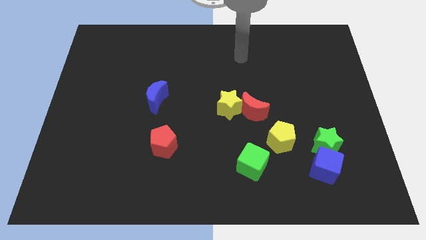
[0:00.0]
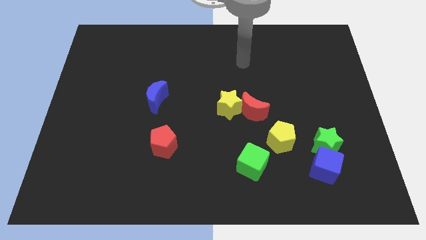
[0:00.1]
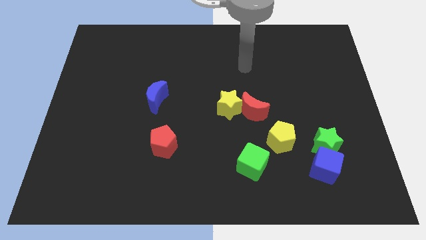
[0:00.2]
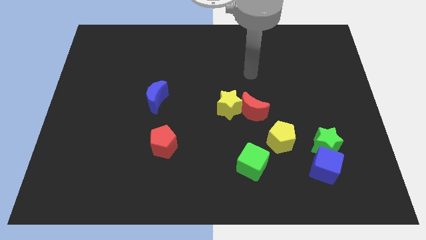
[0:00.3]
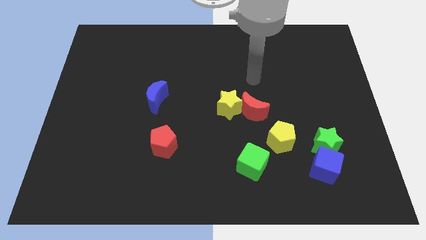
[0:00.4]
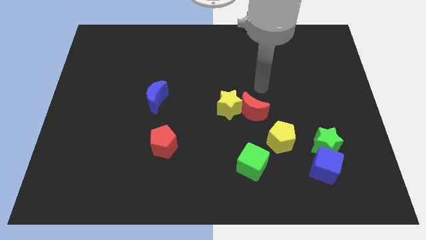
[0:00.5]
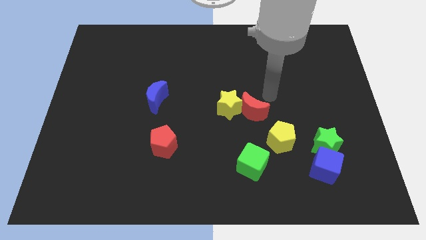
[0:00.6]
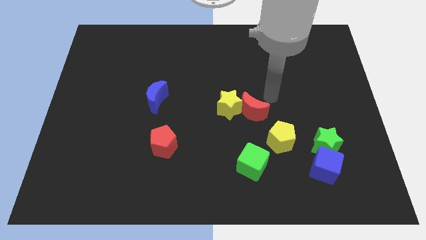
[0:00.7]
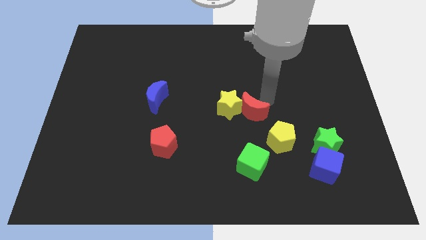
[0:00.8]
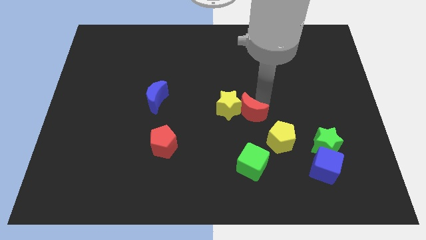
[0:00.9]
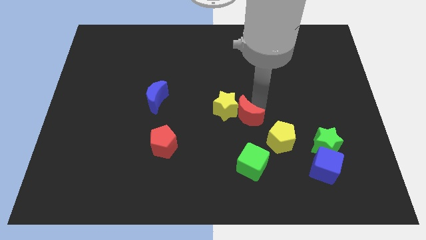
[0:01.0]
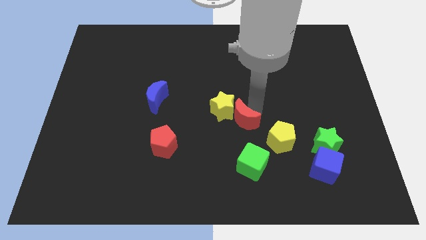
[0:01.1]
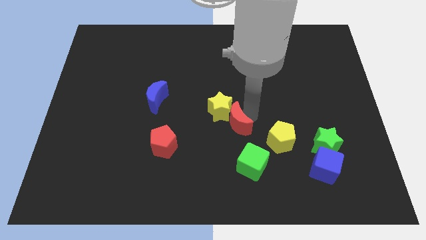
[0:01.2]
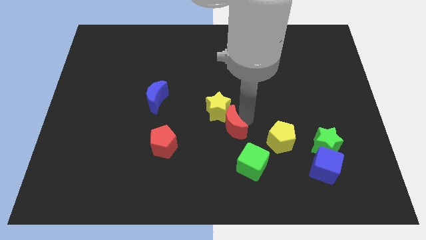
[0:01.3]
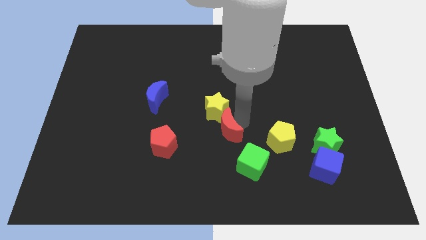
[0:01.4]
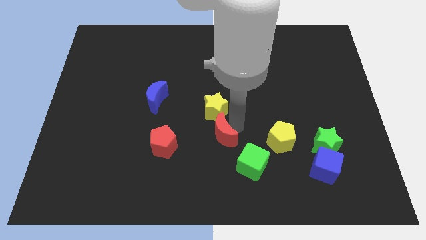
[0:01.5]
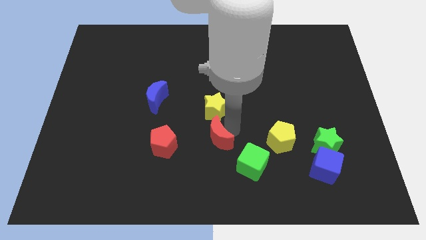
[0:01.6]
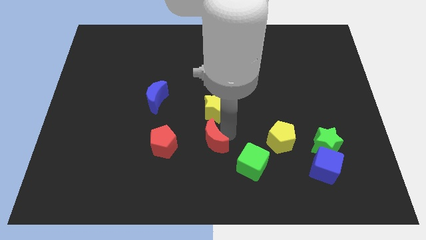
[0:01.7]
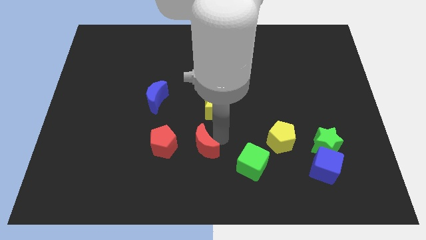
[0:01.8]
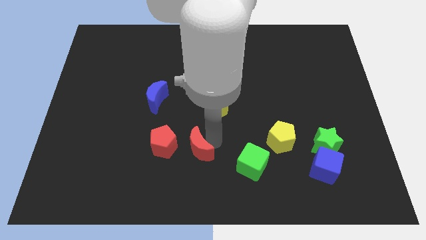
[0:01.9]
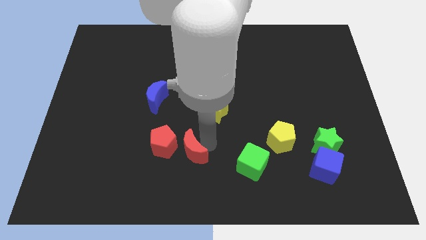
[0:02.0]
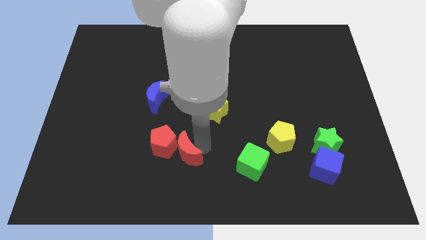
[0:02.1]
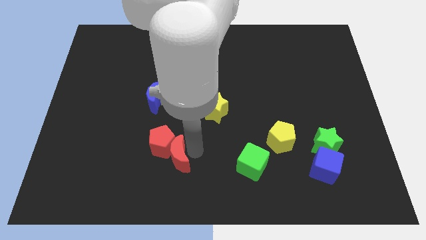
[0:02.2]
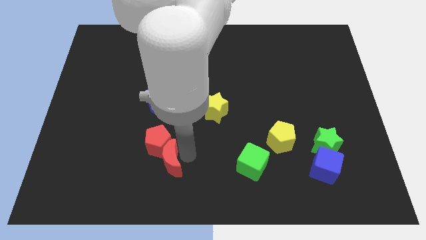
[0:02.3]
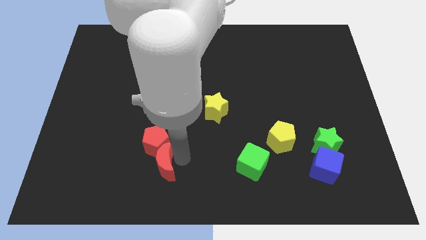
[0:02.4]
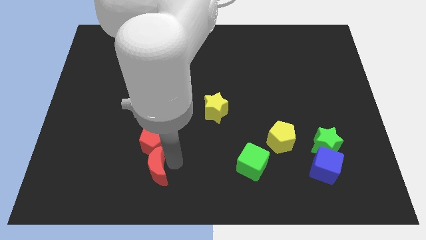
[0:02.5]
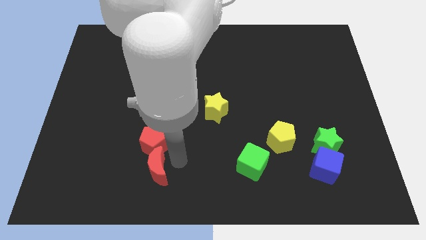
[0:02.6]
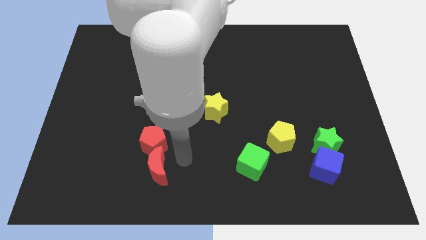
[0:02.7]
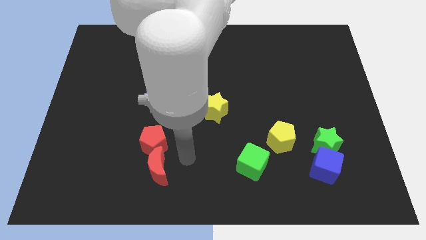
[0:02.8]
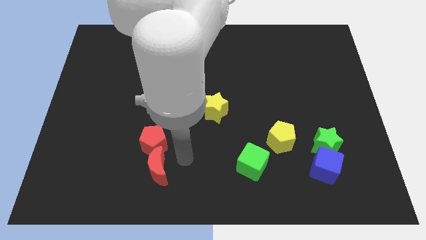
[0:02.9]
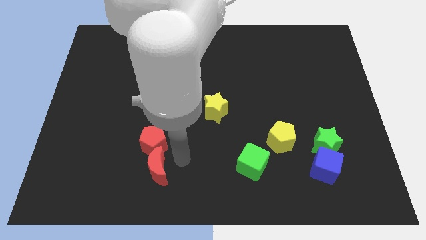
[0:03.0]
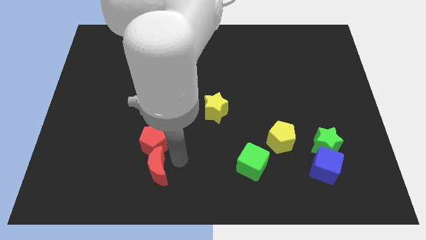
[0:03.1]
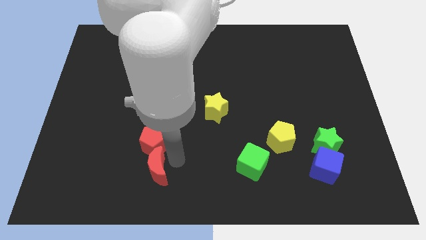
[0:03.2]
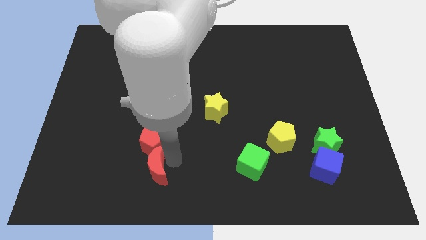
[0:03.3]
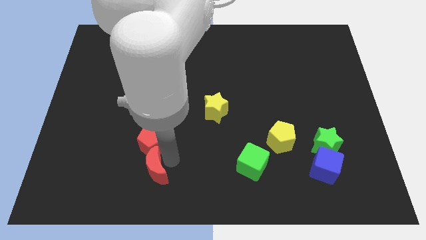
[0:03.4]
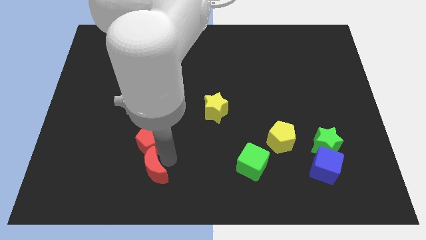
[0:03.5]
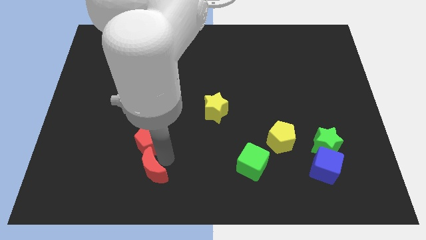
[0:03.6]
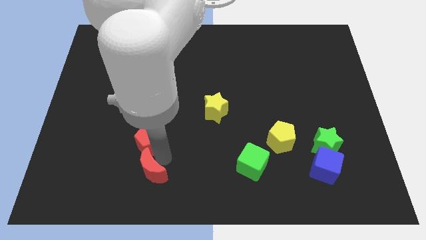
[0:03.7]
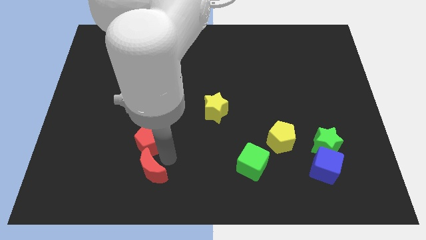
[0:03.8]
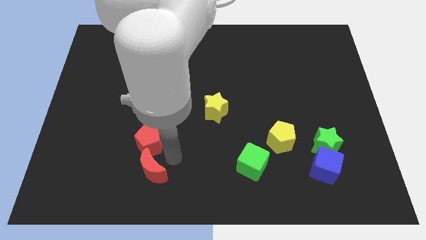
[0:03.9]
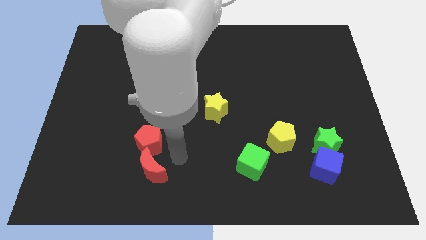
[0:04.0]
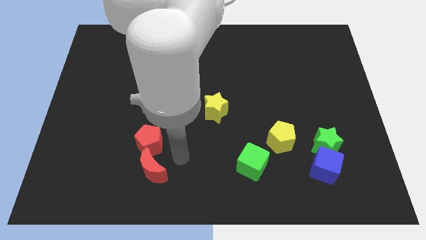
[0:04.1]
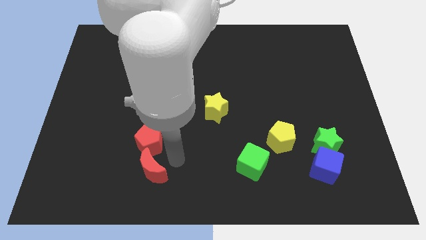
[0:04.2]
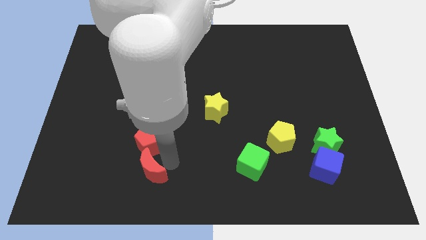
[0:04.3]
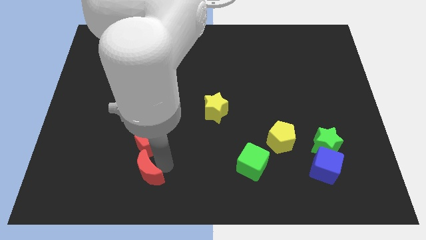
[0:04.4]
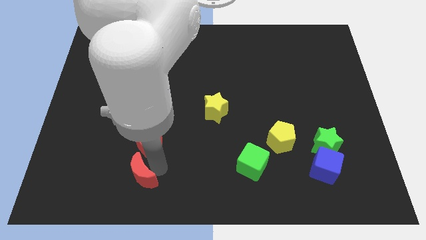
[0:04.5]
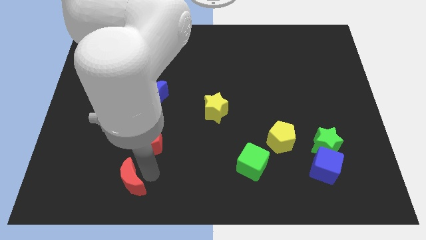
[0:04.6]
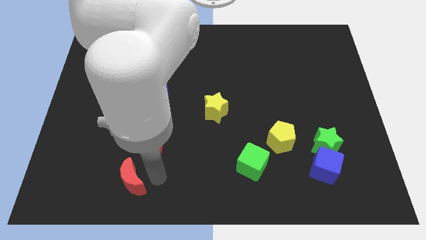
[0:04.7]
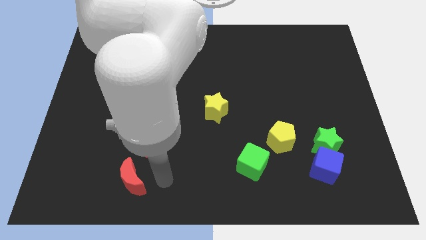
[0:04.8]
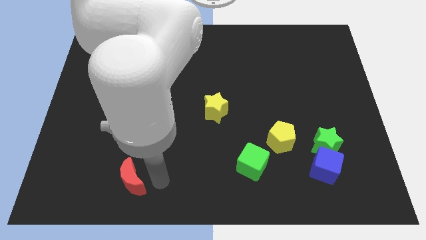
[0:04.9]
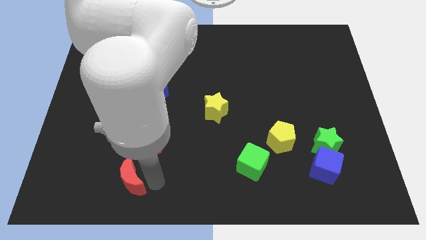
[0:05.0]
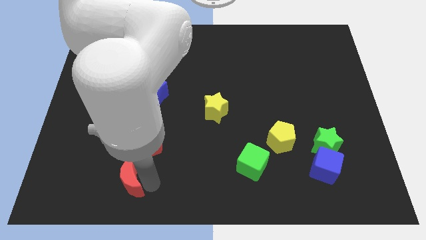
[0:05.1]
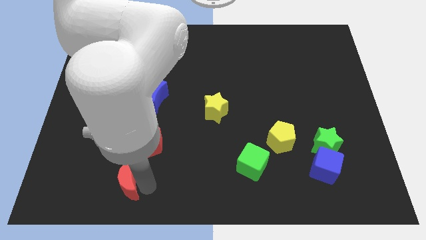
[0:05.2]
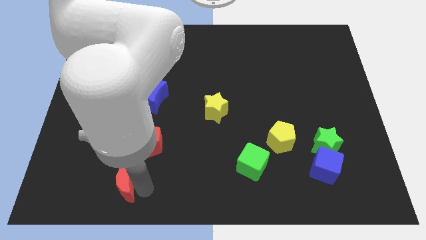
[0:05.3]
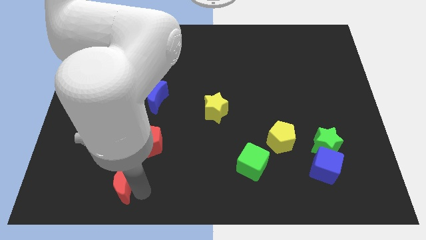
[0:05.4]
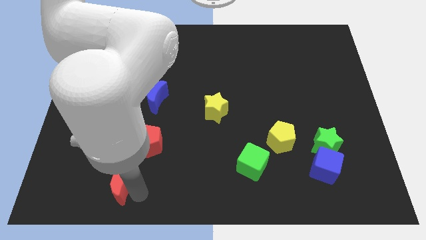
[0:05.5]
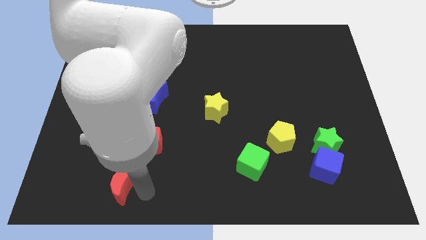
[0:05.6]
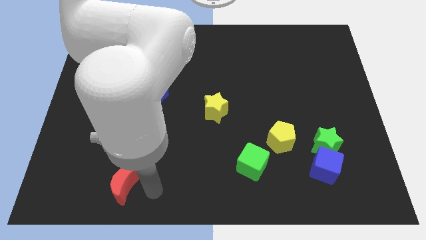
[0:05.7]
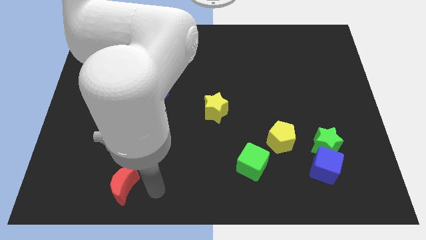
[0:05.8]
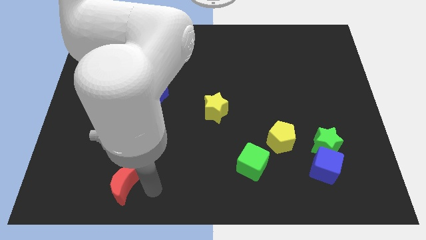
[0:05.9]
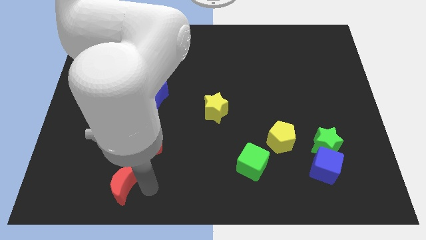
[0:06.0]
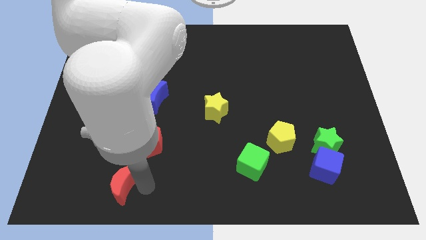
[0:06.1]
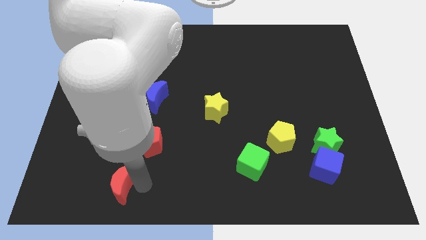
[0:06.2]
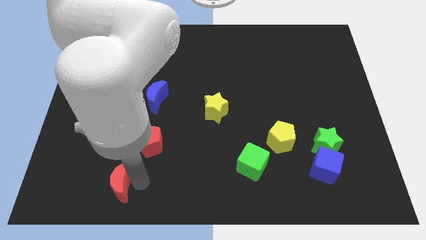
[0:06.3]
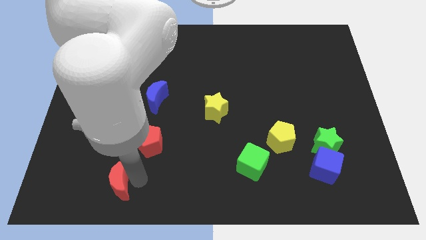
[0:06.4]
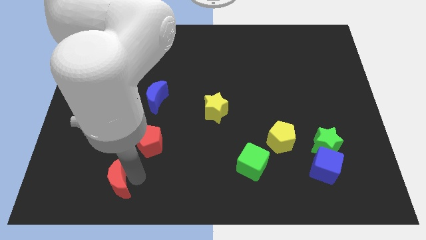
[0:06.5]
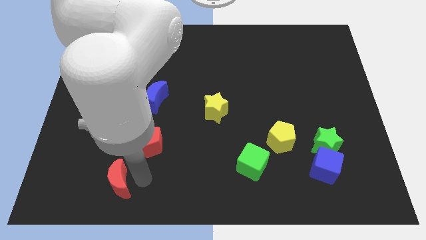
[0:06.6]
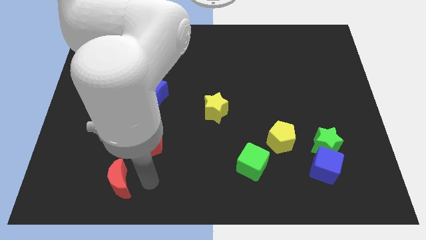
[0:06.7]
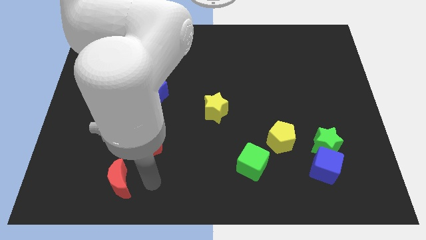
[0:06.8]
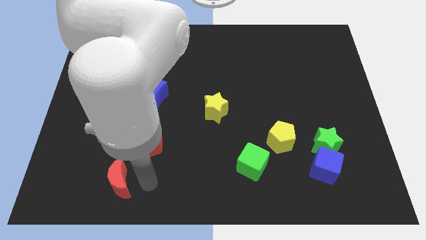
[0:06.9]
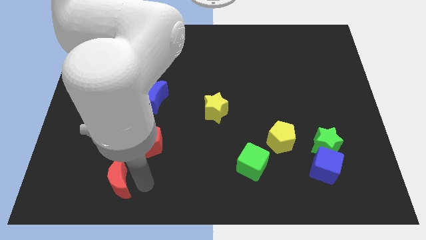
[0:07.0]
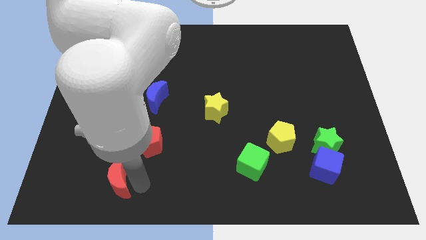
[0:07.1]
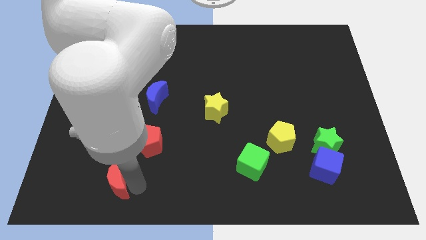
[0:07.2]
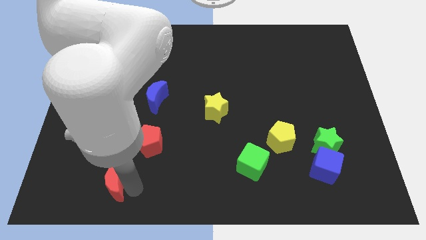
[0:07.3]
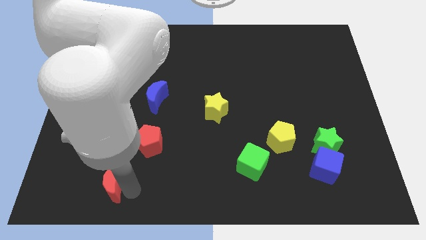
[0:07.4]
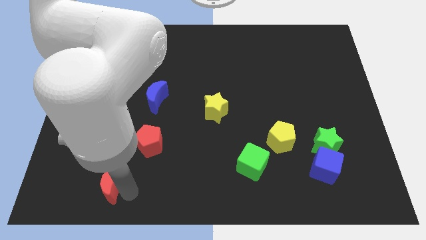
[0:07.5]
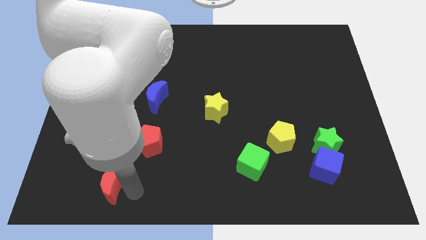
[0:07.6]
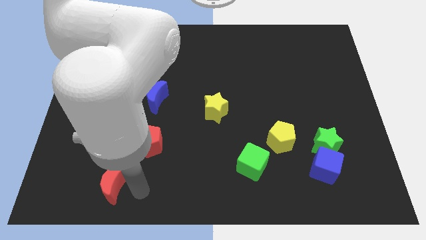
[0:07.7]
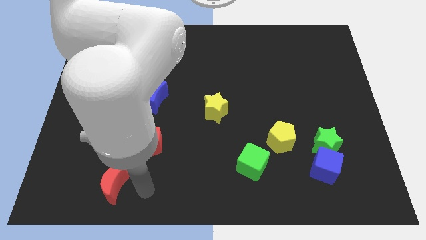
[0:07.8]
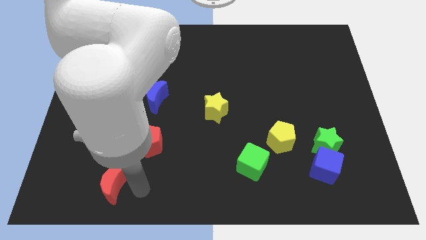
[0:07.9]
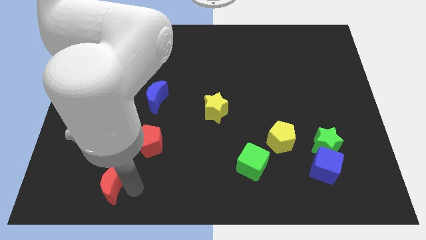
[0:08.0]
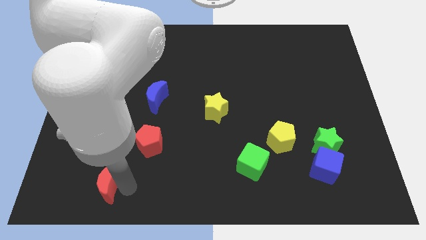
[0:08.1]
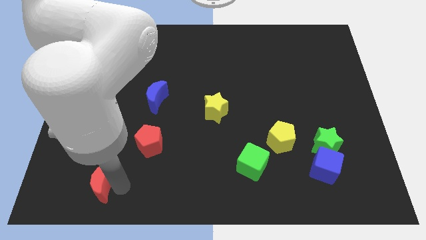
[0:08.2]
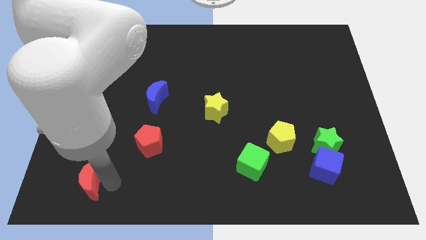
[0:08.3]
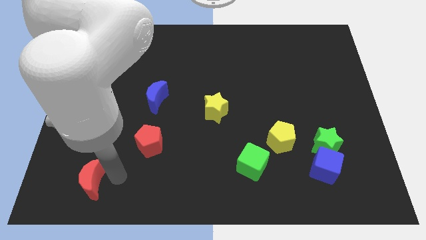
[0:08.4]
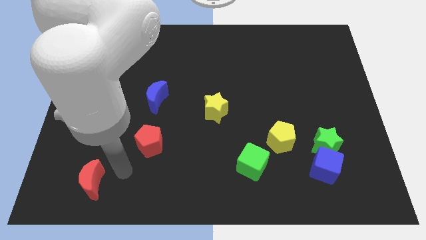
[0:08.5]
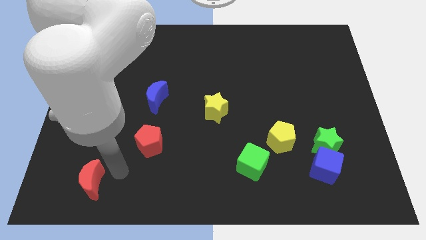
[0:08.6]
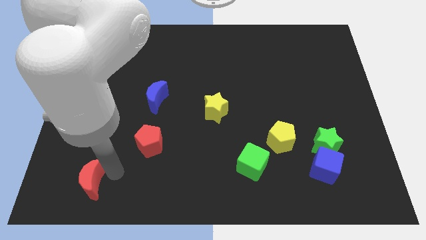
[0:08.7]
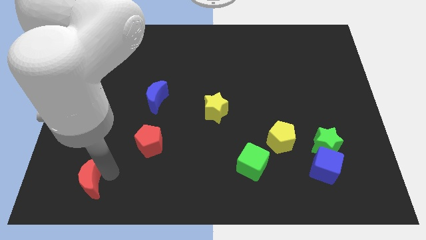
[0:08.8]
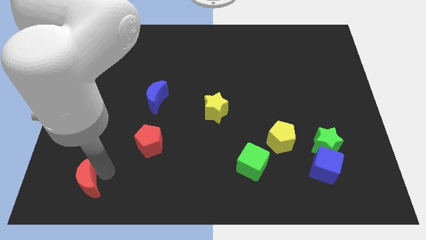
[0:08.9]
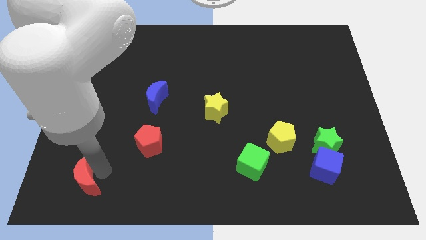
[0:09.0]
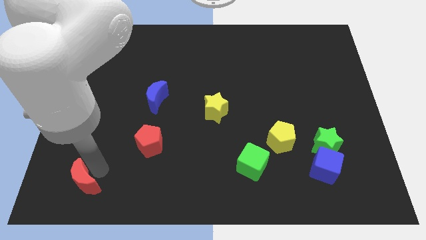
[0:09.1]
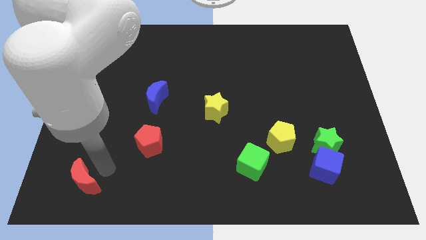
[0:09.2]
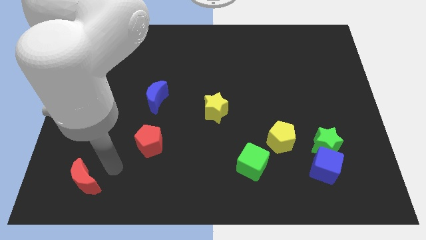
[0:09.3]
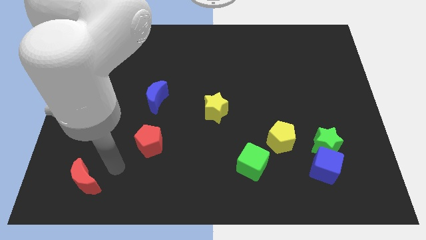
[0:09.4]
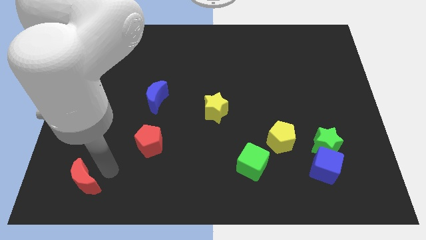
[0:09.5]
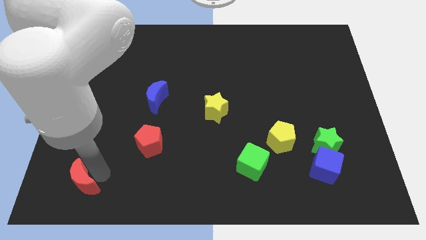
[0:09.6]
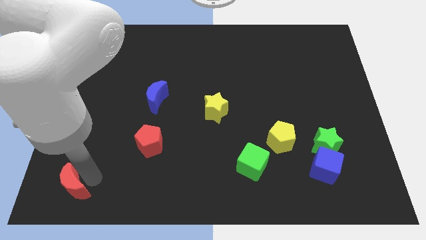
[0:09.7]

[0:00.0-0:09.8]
slide the red moon to the bottom left of the board
